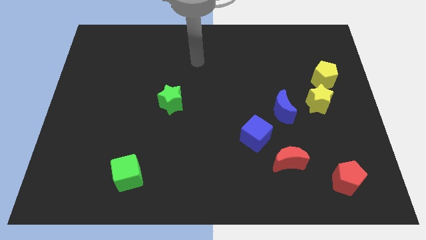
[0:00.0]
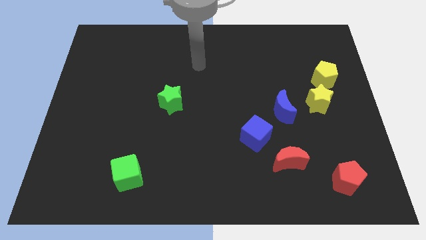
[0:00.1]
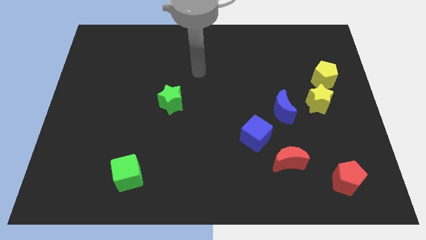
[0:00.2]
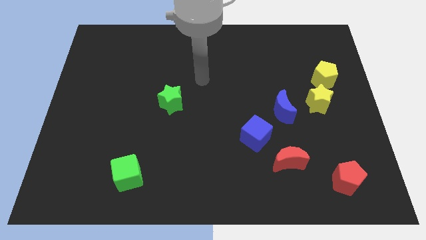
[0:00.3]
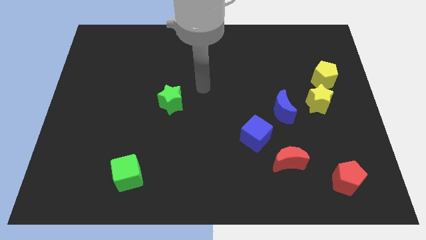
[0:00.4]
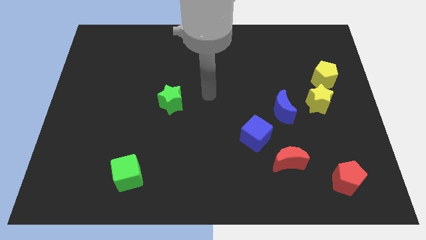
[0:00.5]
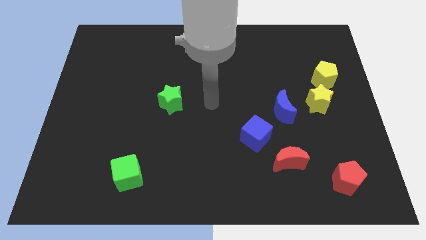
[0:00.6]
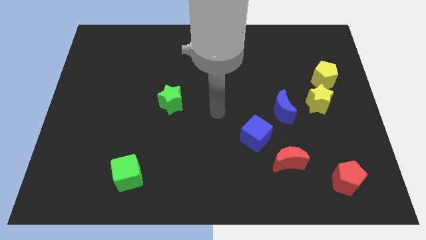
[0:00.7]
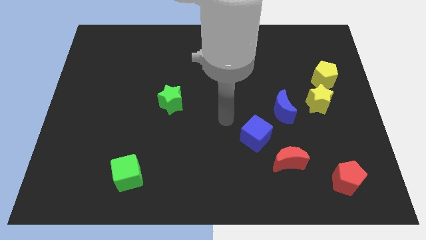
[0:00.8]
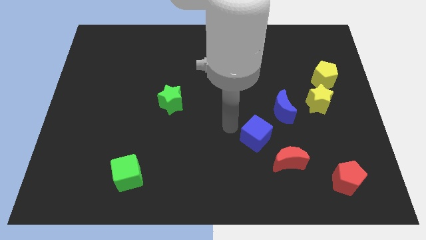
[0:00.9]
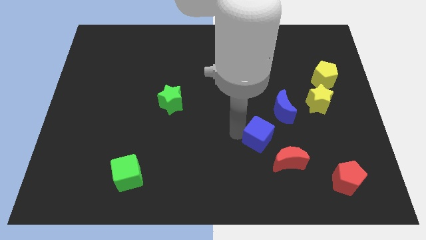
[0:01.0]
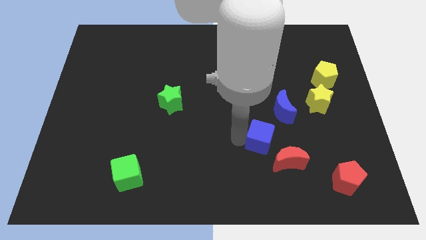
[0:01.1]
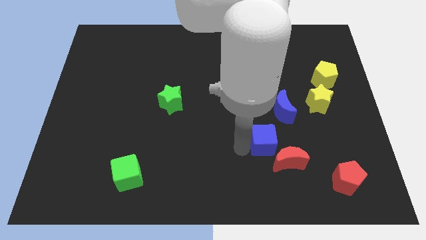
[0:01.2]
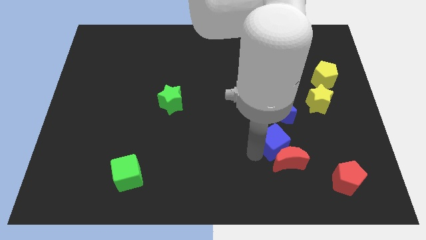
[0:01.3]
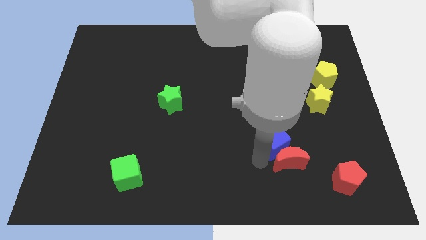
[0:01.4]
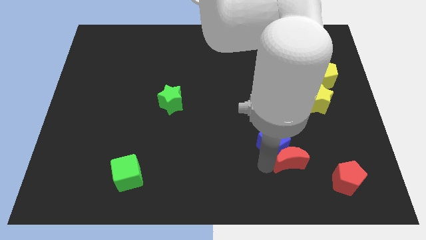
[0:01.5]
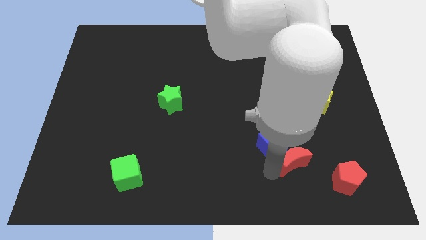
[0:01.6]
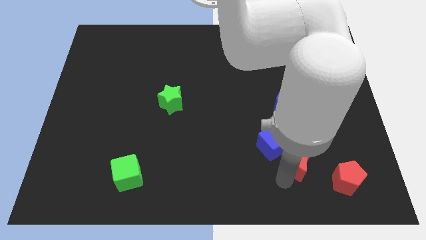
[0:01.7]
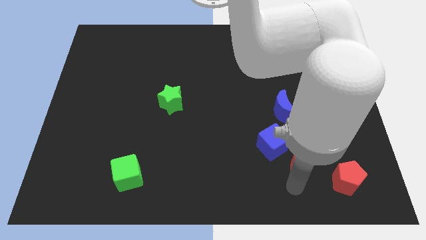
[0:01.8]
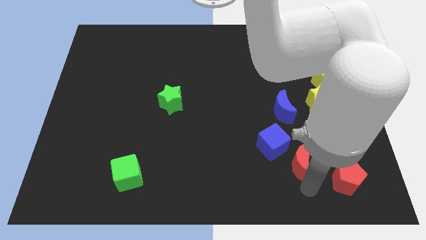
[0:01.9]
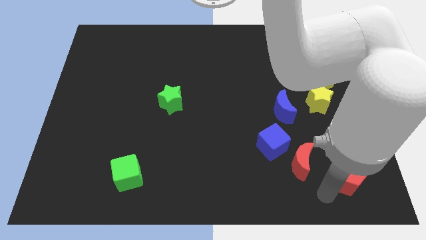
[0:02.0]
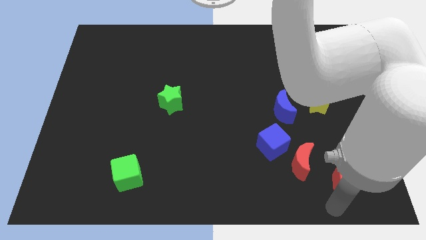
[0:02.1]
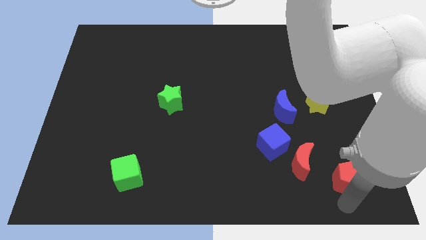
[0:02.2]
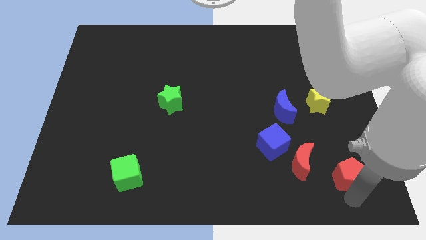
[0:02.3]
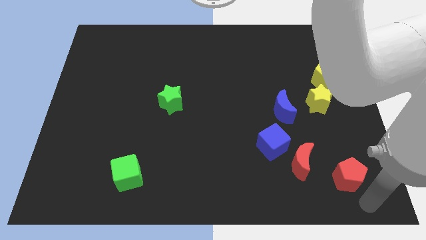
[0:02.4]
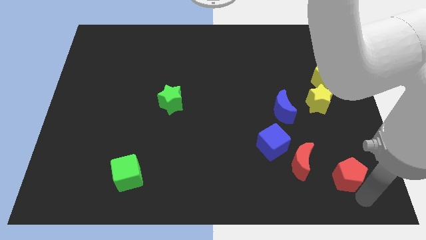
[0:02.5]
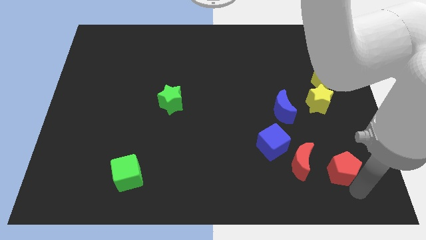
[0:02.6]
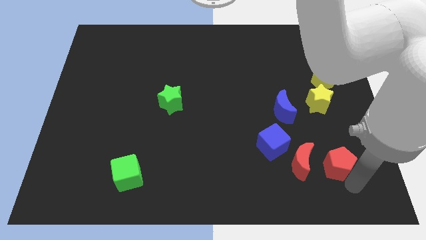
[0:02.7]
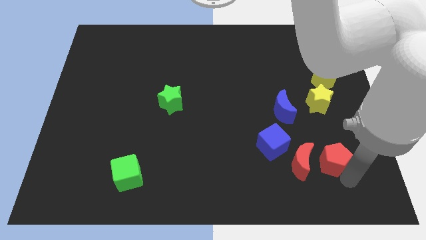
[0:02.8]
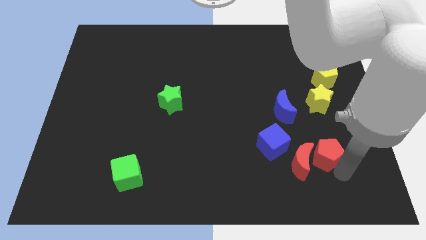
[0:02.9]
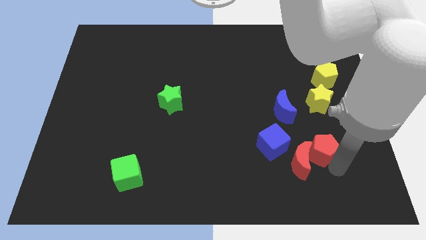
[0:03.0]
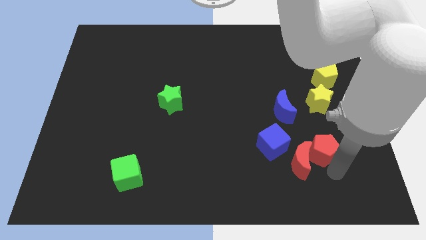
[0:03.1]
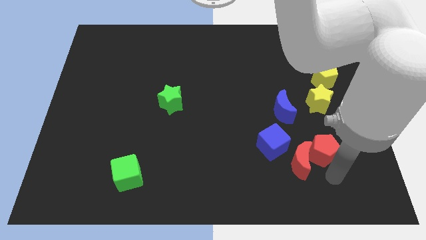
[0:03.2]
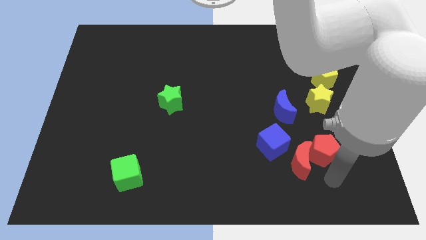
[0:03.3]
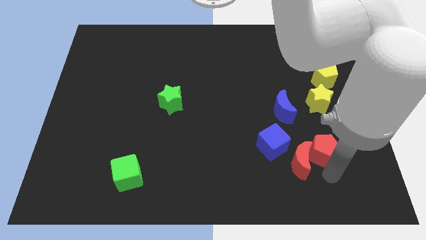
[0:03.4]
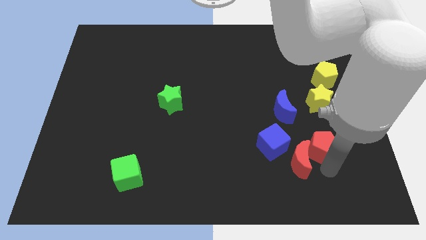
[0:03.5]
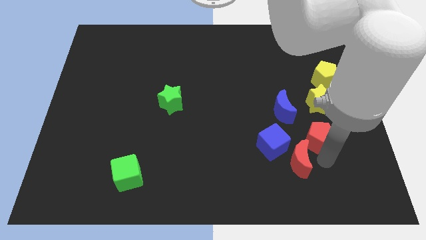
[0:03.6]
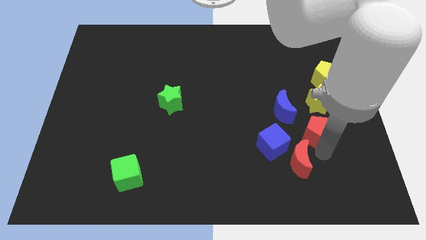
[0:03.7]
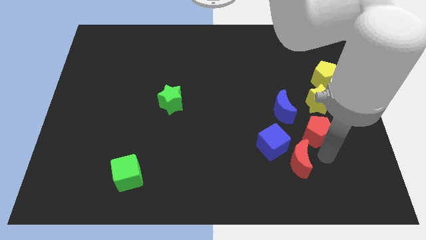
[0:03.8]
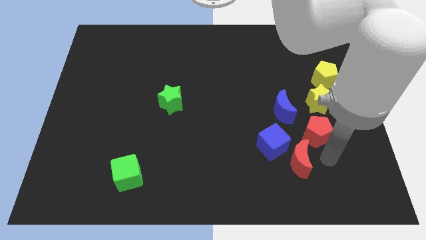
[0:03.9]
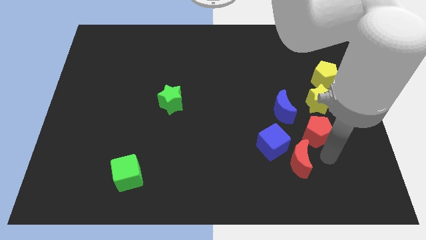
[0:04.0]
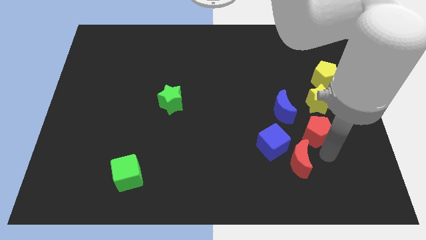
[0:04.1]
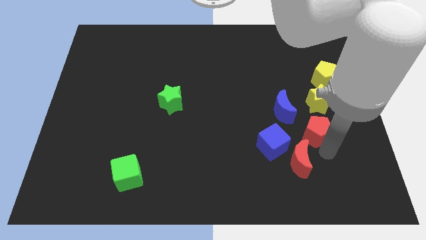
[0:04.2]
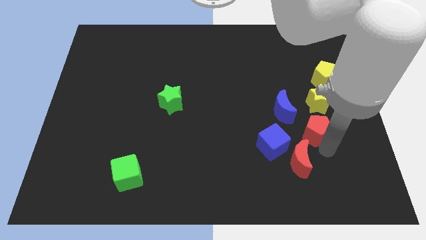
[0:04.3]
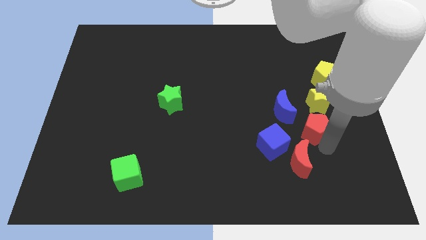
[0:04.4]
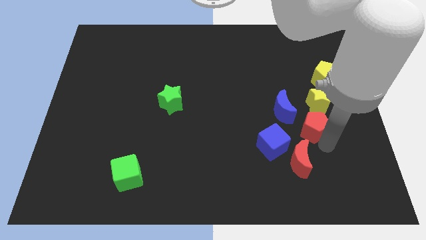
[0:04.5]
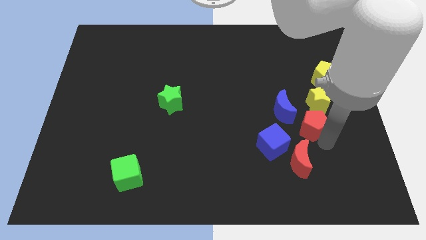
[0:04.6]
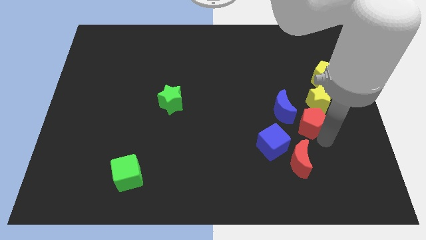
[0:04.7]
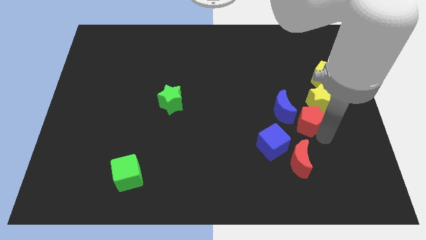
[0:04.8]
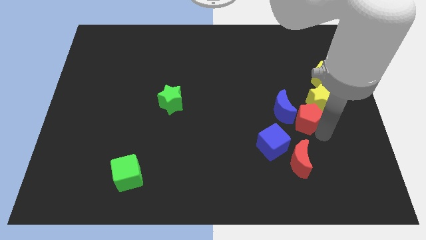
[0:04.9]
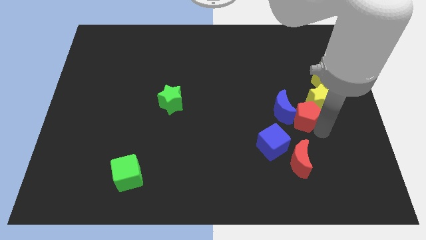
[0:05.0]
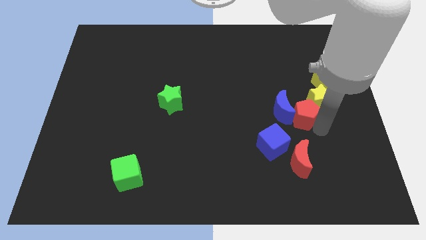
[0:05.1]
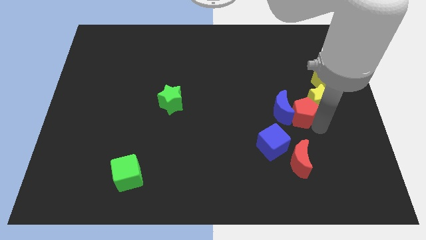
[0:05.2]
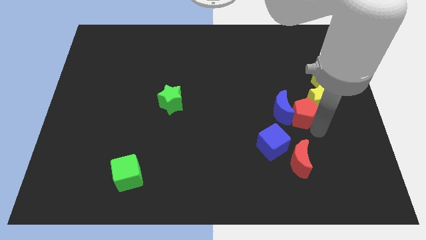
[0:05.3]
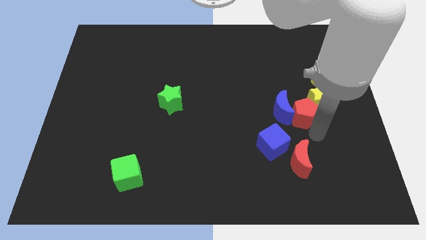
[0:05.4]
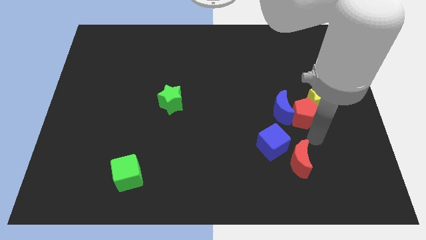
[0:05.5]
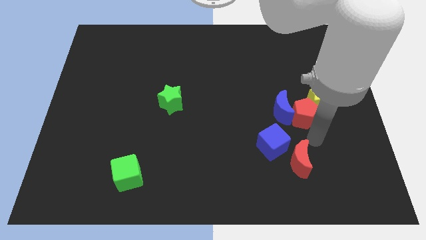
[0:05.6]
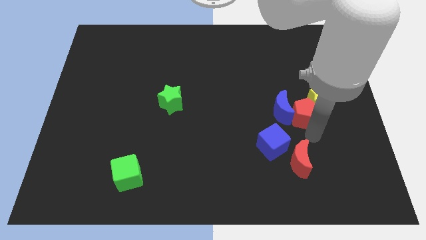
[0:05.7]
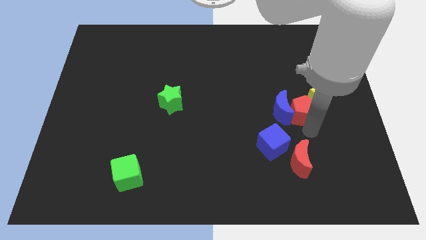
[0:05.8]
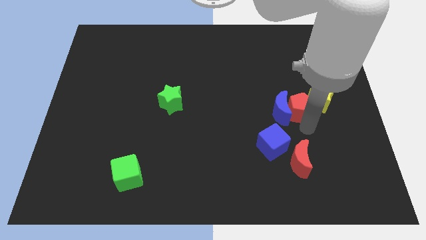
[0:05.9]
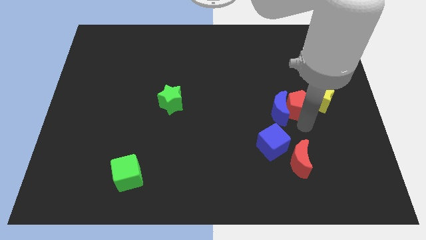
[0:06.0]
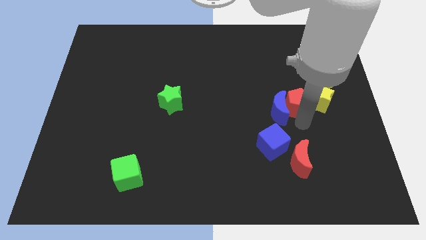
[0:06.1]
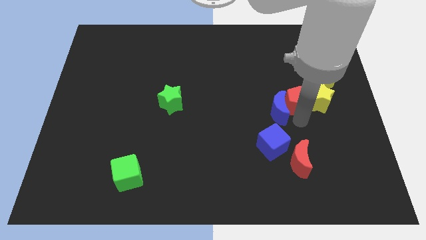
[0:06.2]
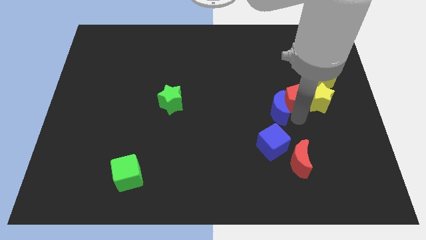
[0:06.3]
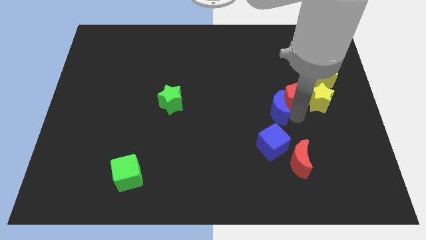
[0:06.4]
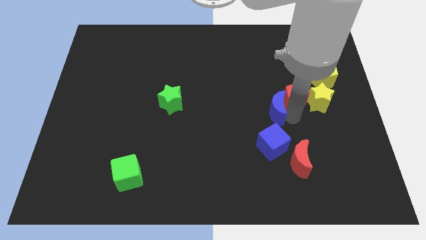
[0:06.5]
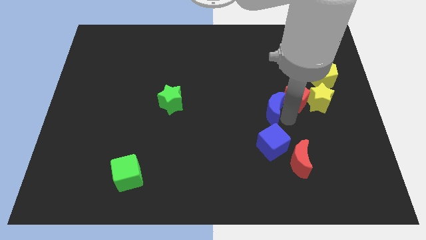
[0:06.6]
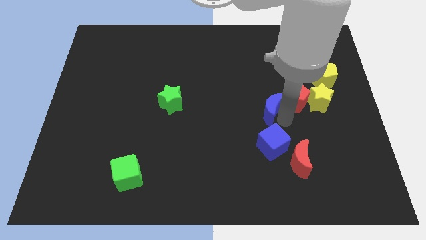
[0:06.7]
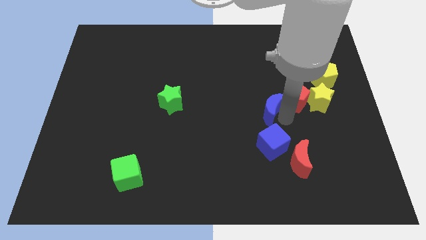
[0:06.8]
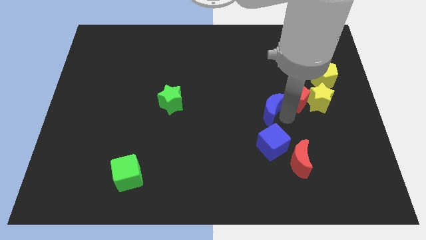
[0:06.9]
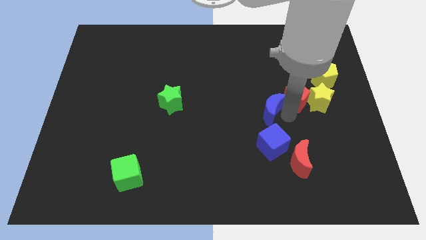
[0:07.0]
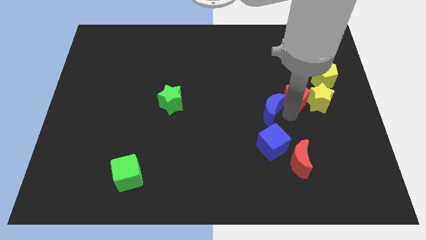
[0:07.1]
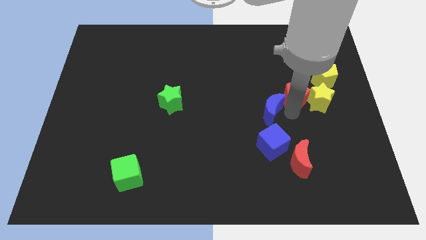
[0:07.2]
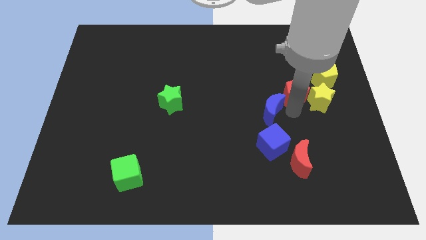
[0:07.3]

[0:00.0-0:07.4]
slide the red pentagon upwards

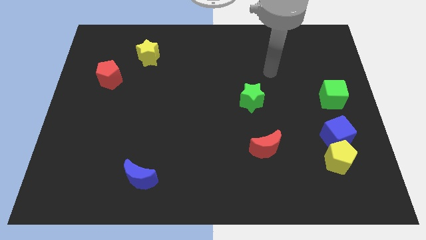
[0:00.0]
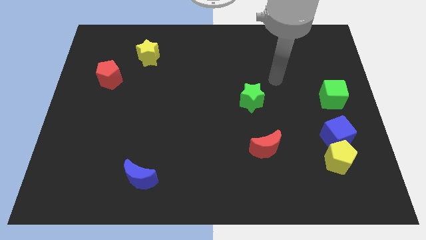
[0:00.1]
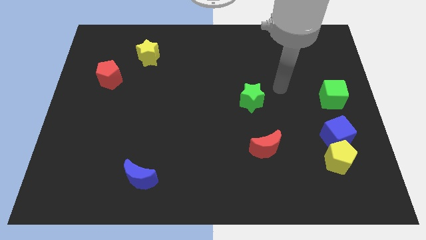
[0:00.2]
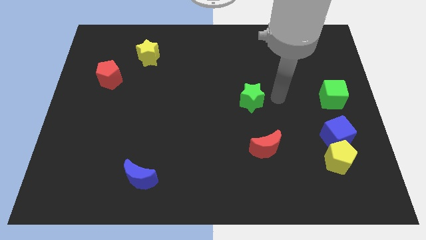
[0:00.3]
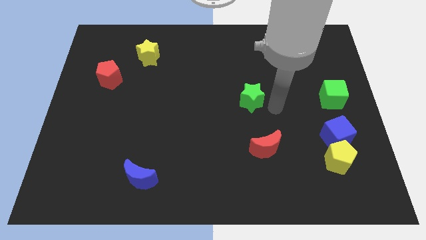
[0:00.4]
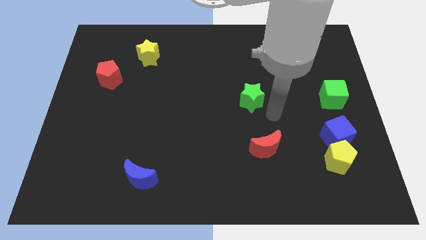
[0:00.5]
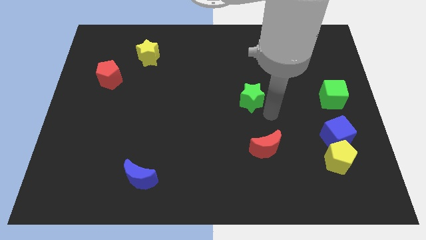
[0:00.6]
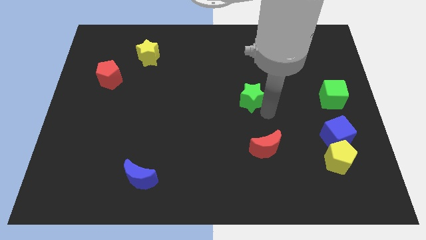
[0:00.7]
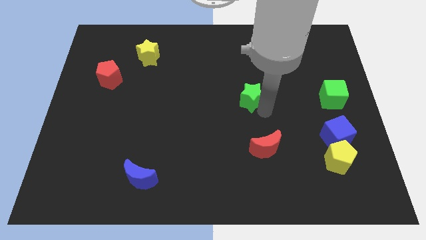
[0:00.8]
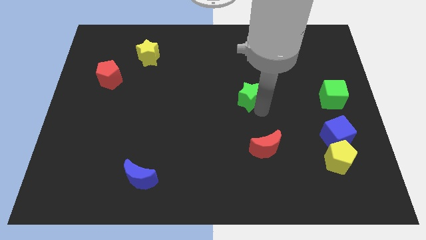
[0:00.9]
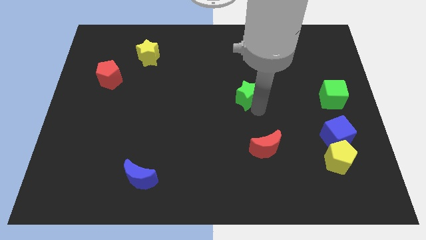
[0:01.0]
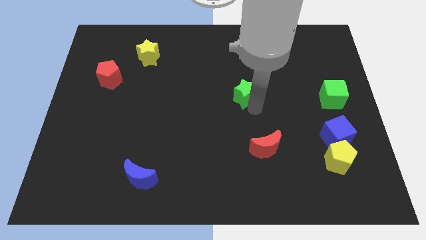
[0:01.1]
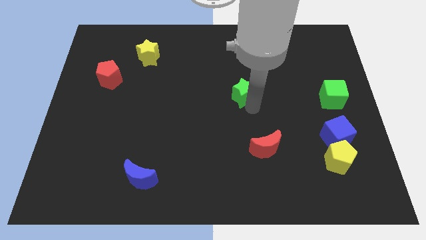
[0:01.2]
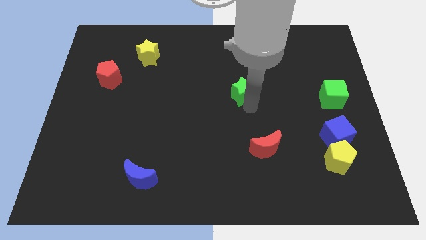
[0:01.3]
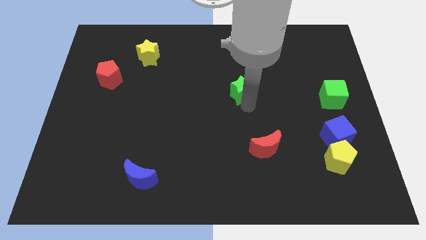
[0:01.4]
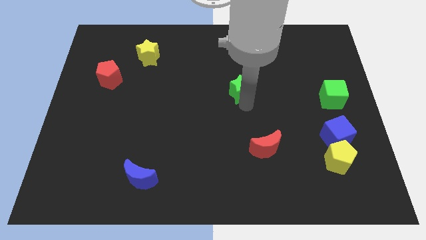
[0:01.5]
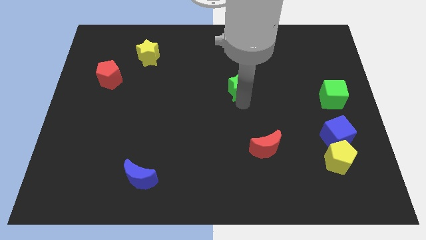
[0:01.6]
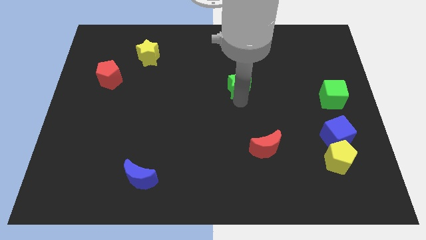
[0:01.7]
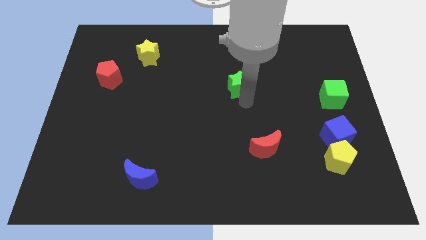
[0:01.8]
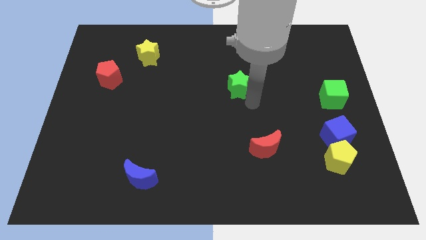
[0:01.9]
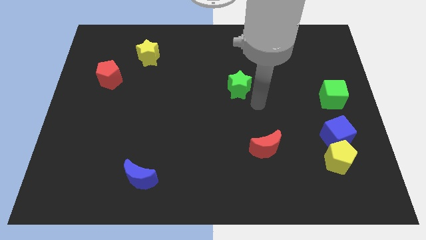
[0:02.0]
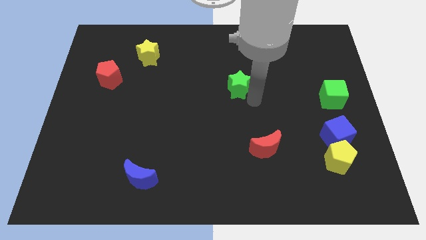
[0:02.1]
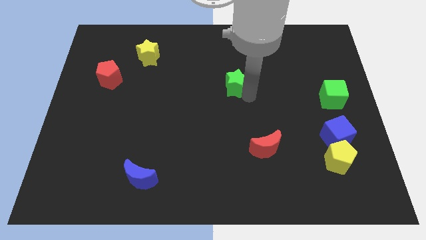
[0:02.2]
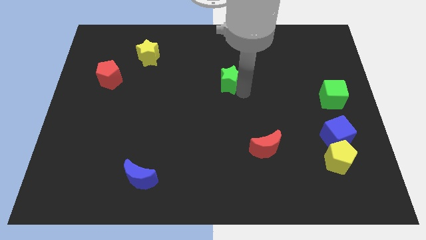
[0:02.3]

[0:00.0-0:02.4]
slide the green star a bit upwards and to the left diagonally
